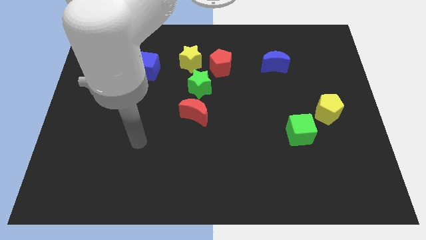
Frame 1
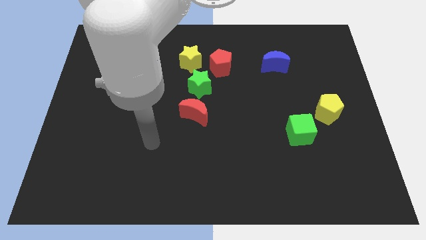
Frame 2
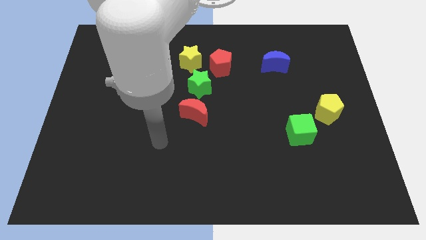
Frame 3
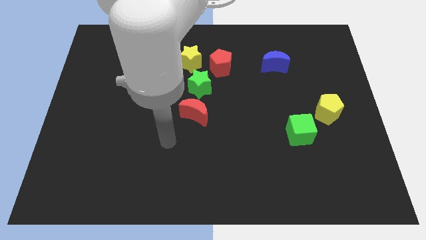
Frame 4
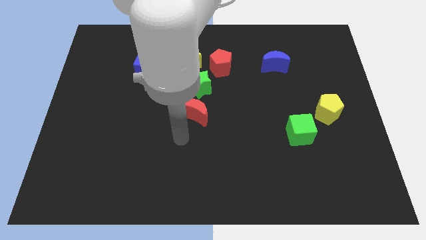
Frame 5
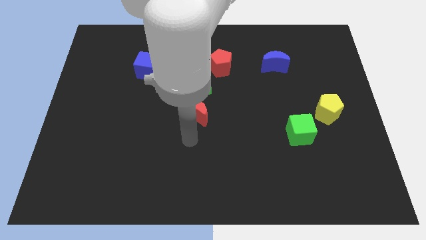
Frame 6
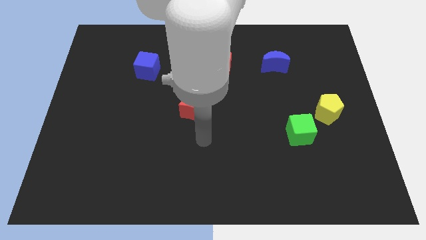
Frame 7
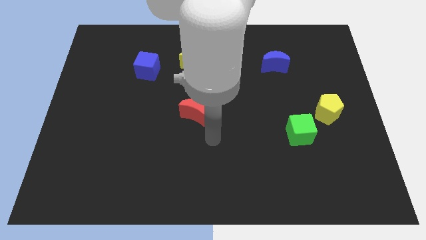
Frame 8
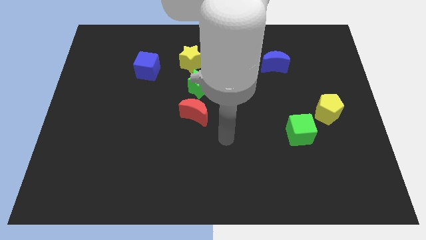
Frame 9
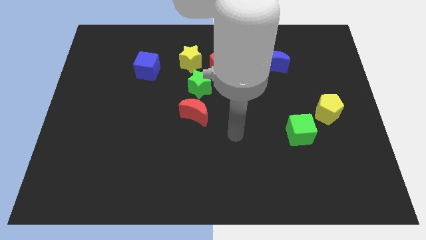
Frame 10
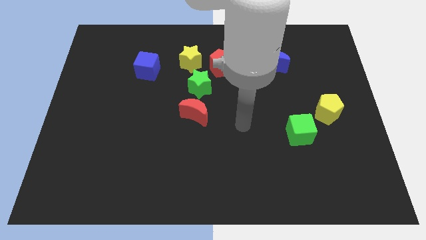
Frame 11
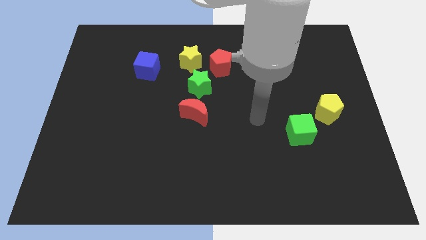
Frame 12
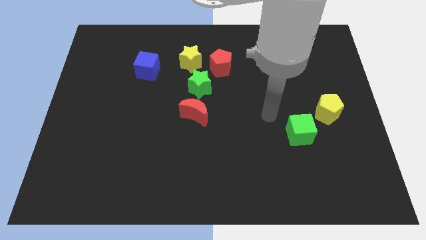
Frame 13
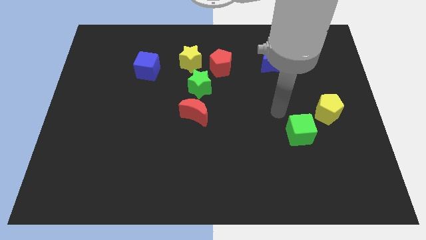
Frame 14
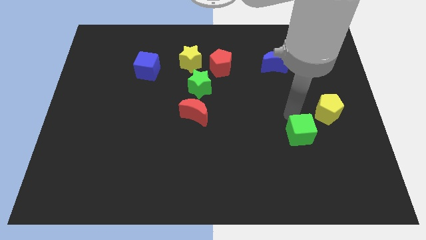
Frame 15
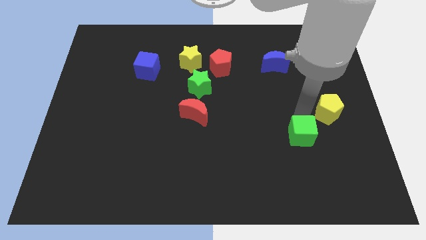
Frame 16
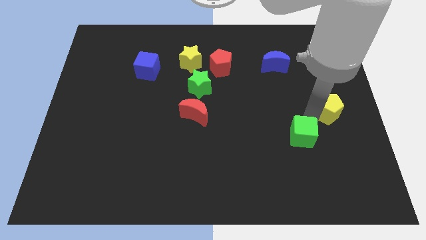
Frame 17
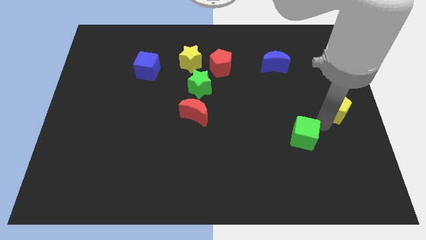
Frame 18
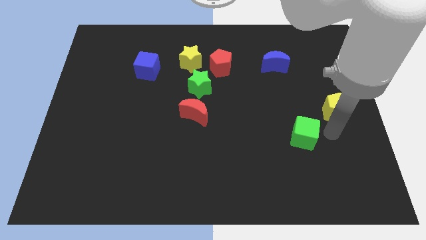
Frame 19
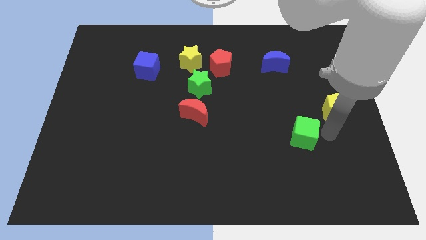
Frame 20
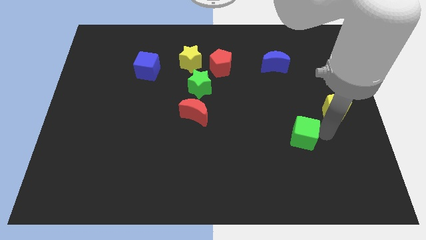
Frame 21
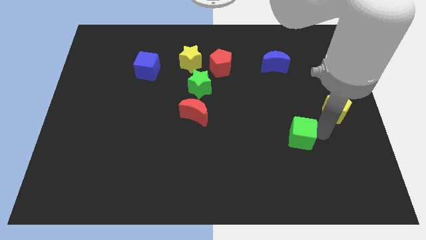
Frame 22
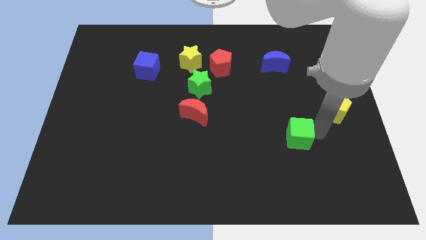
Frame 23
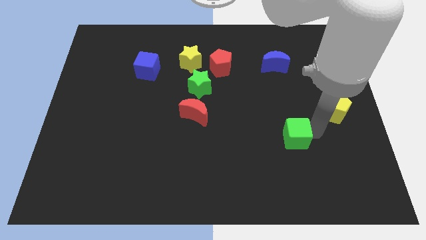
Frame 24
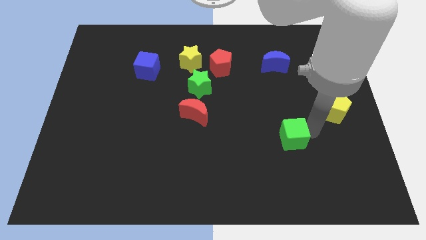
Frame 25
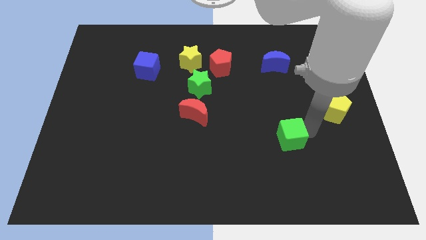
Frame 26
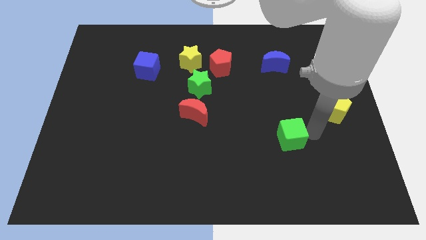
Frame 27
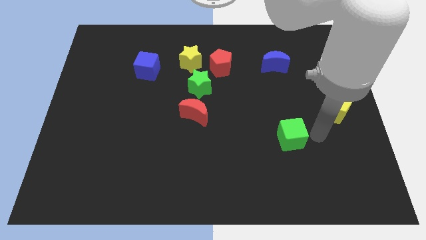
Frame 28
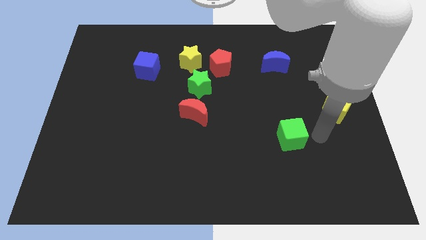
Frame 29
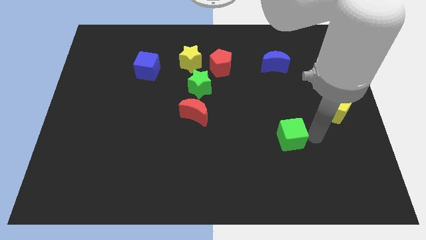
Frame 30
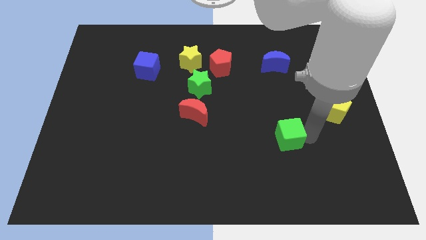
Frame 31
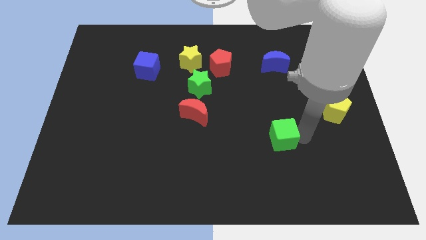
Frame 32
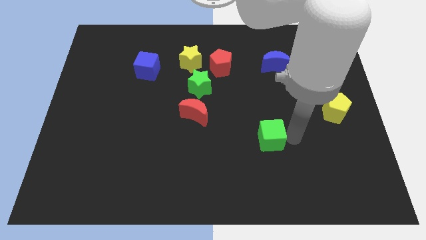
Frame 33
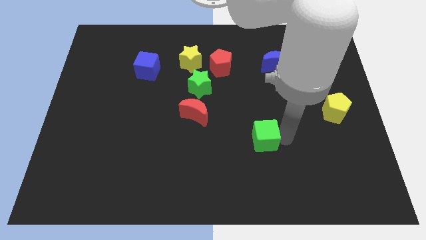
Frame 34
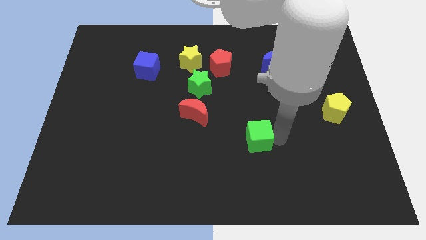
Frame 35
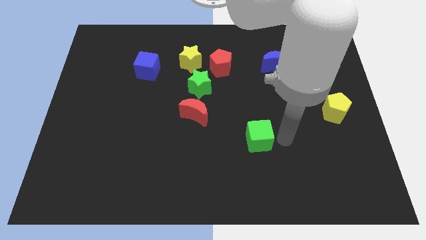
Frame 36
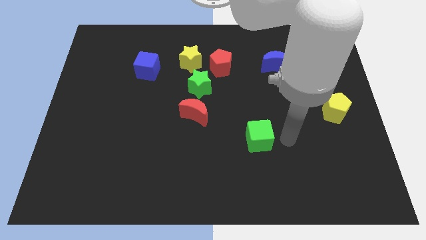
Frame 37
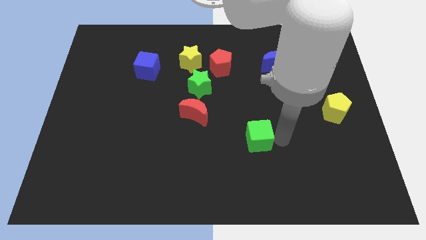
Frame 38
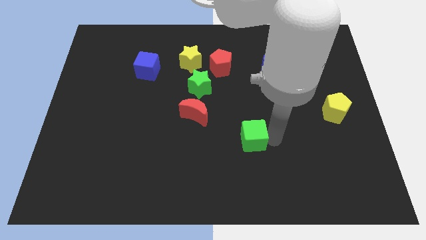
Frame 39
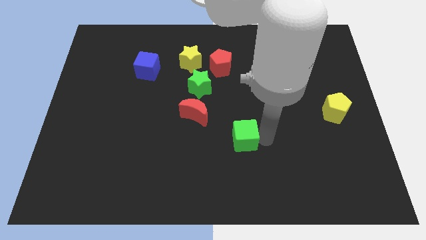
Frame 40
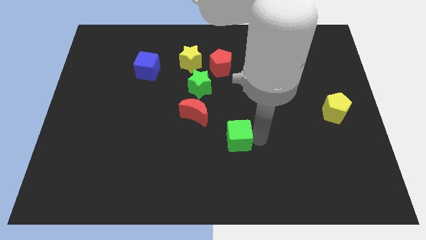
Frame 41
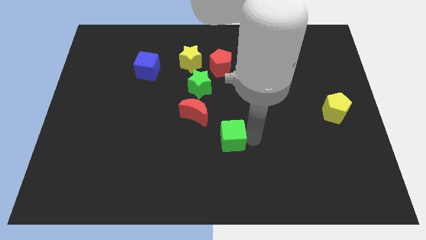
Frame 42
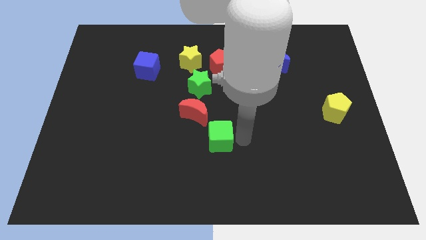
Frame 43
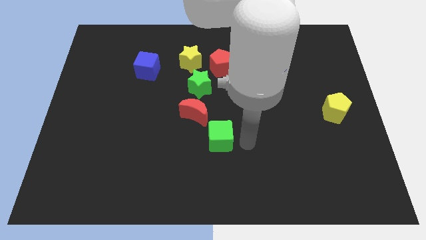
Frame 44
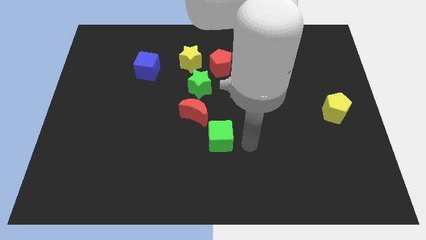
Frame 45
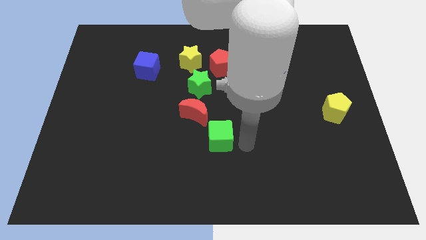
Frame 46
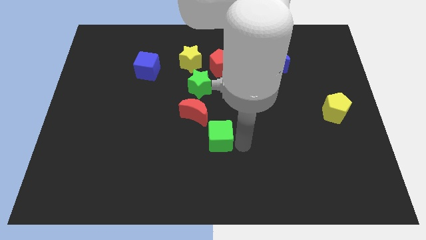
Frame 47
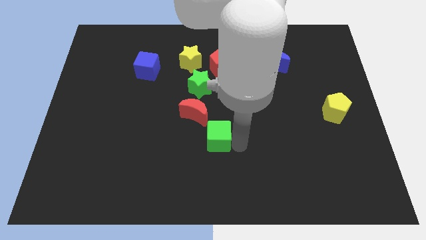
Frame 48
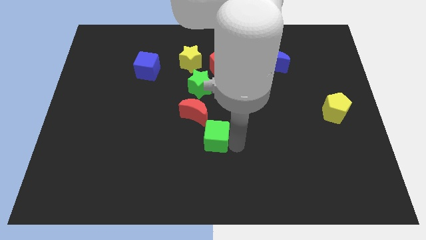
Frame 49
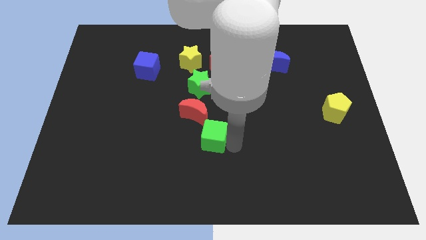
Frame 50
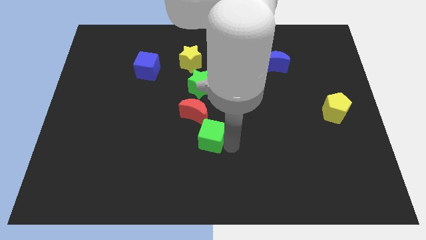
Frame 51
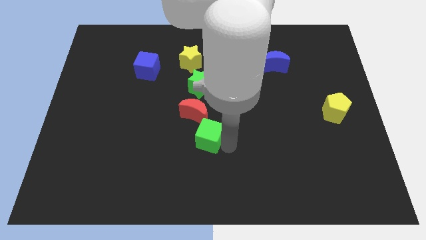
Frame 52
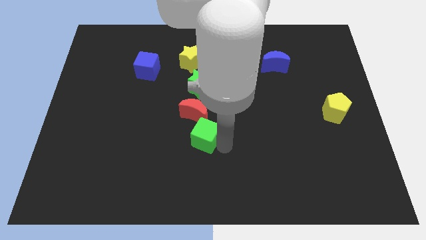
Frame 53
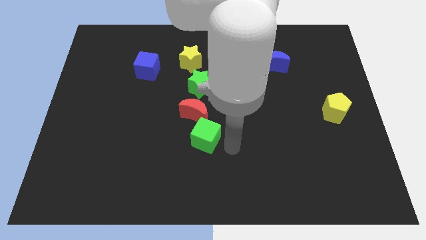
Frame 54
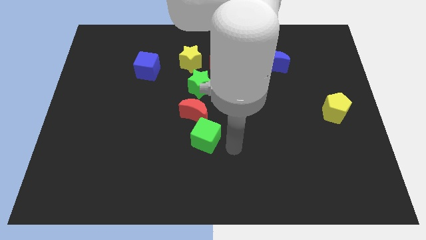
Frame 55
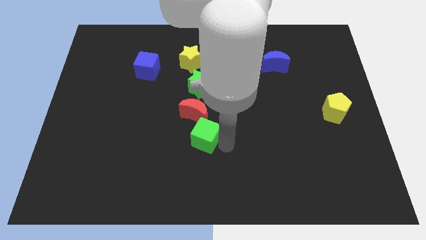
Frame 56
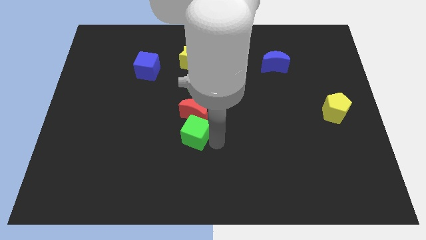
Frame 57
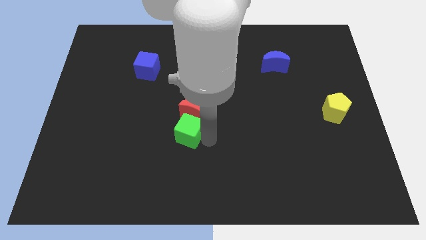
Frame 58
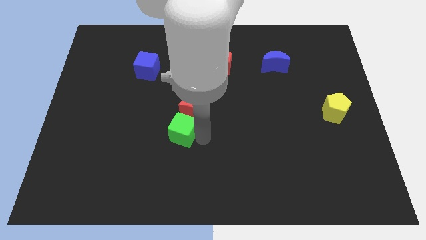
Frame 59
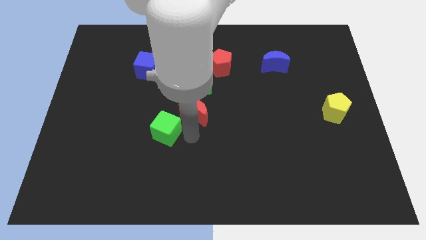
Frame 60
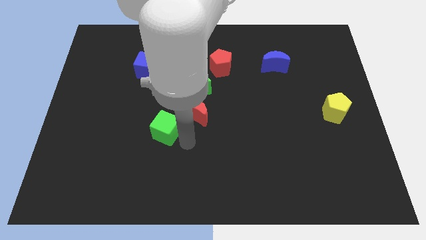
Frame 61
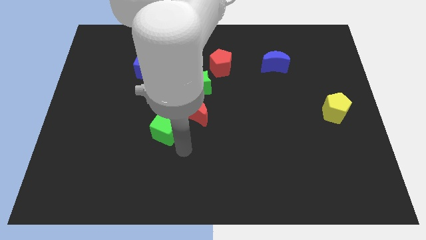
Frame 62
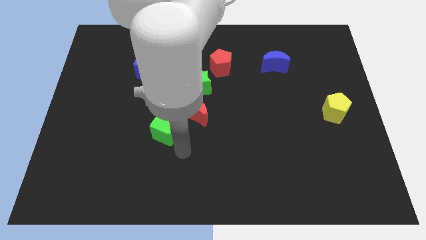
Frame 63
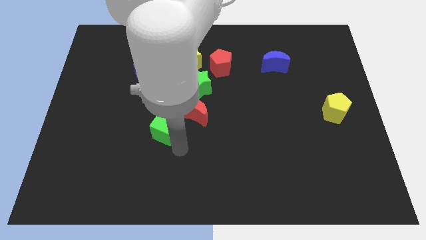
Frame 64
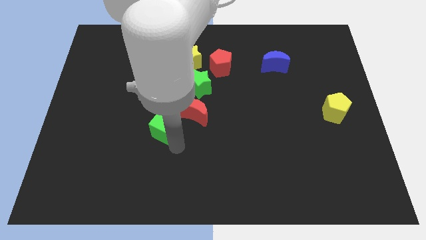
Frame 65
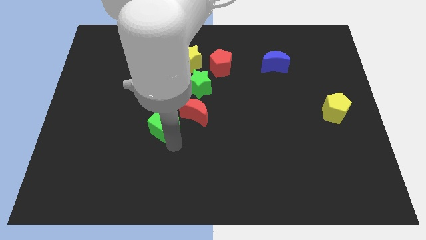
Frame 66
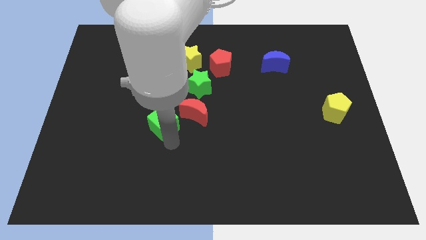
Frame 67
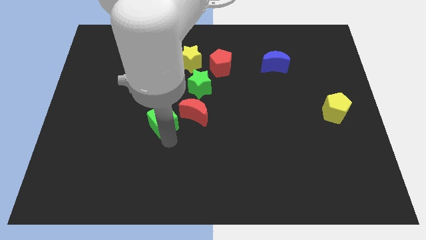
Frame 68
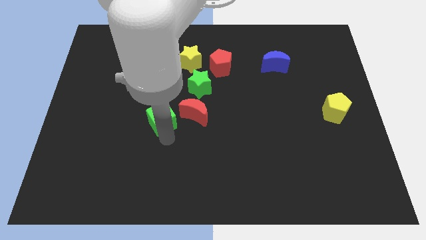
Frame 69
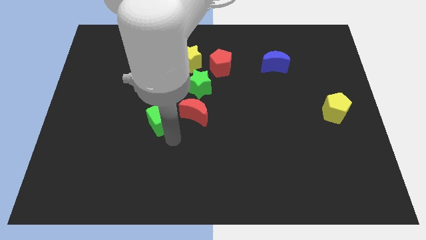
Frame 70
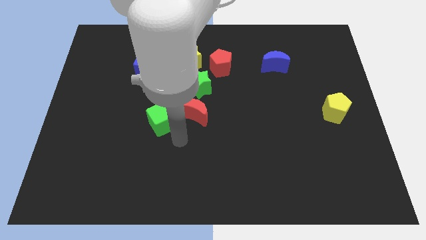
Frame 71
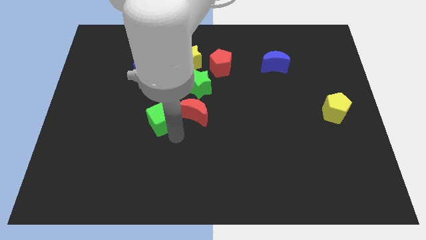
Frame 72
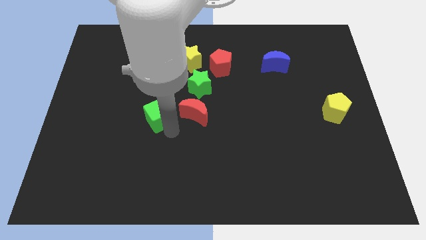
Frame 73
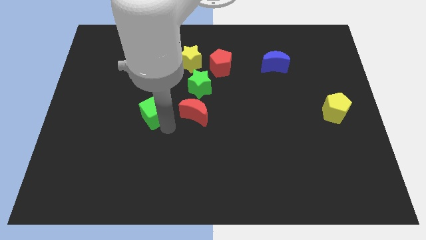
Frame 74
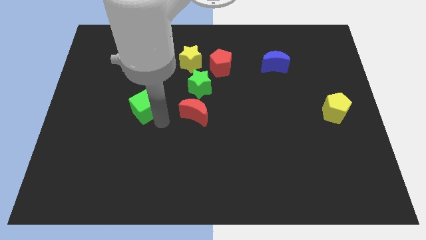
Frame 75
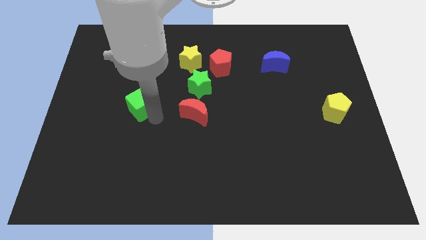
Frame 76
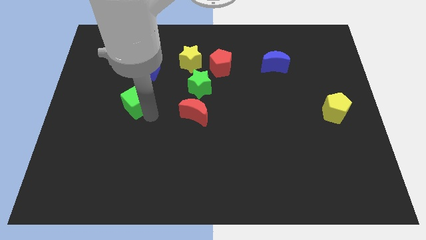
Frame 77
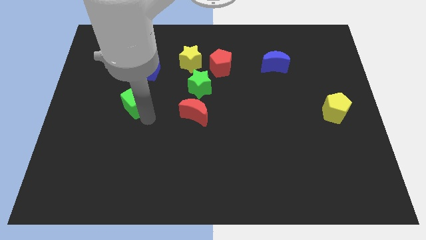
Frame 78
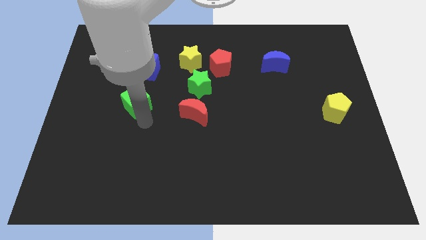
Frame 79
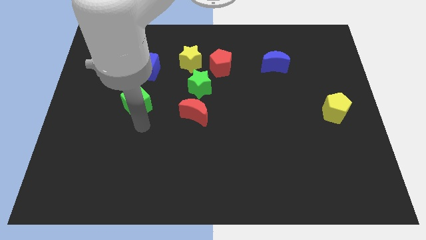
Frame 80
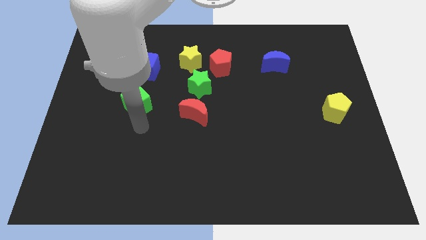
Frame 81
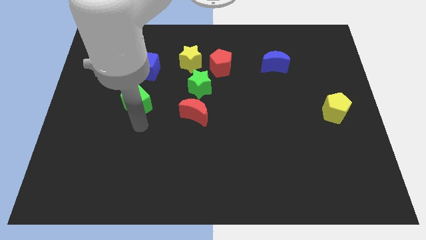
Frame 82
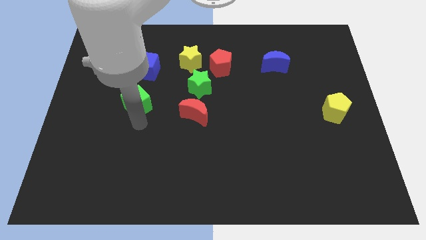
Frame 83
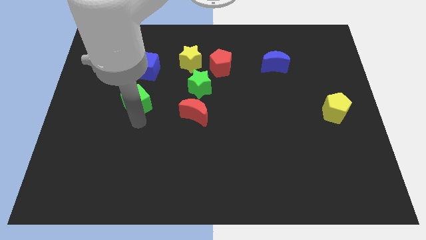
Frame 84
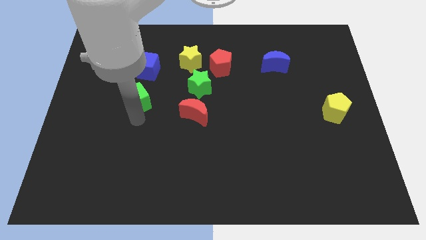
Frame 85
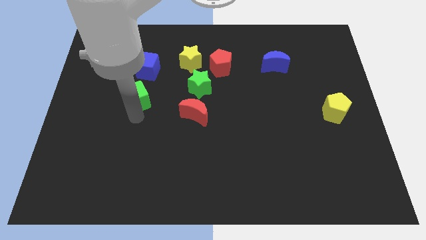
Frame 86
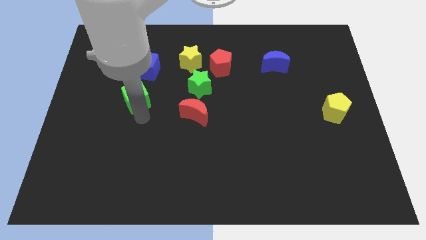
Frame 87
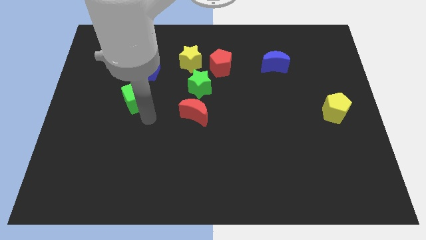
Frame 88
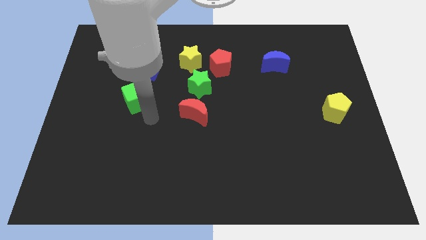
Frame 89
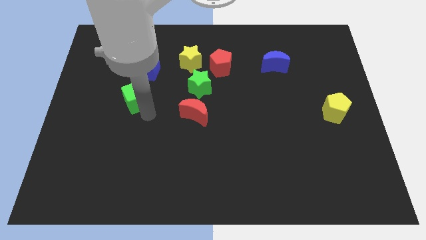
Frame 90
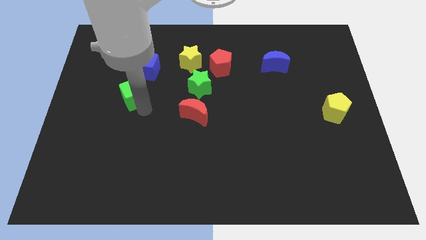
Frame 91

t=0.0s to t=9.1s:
move the green cube diagonally down and to the left of the blue cube
